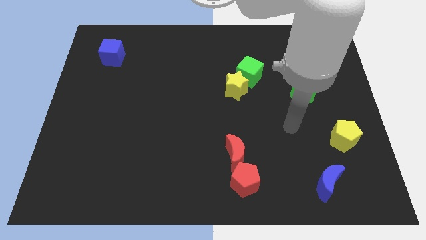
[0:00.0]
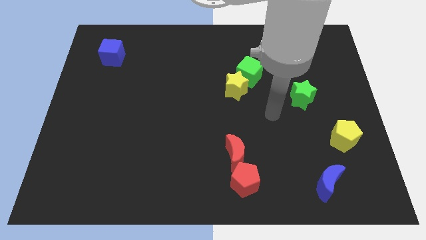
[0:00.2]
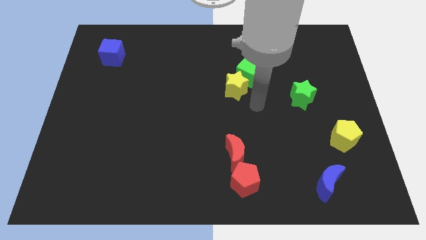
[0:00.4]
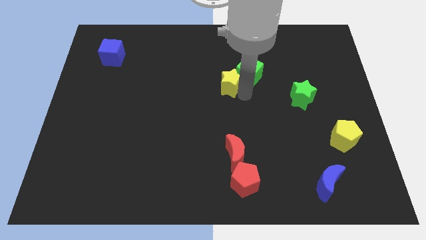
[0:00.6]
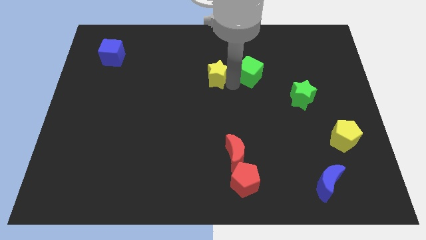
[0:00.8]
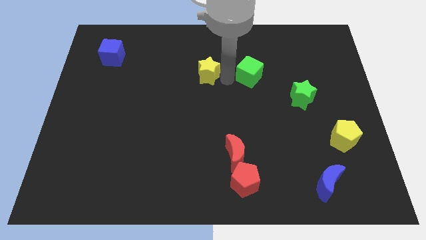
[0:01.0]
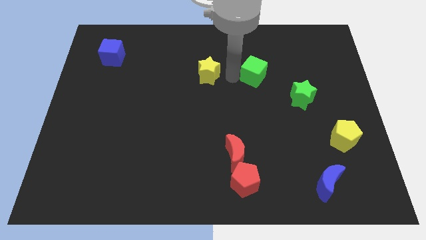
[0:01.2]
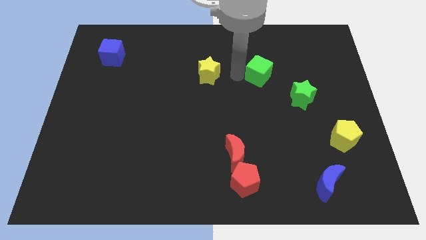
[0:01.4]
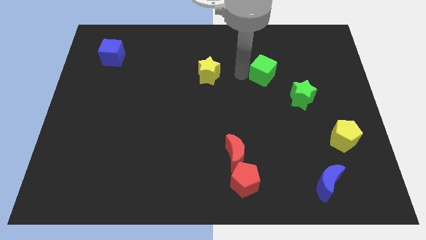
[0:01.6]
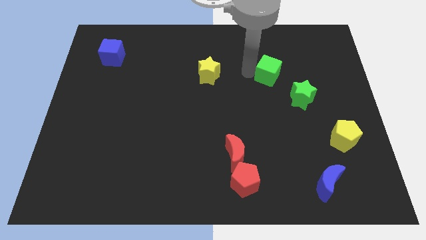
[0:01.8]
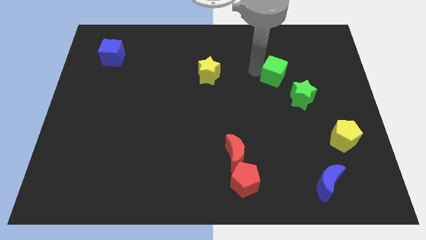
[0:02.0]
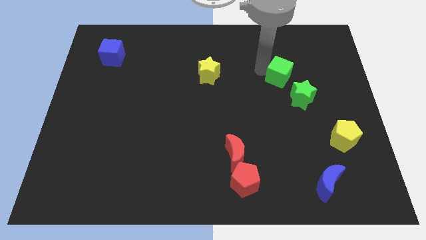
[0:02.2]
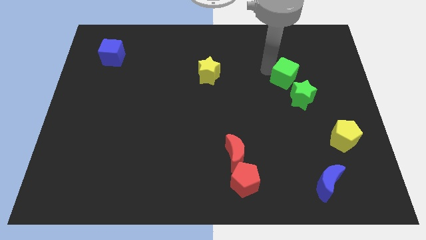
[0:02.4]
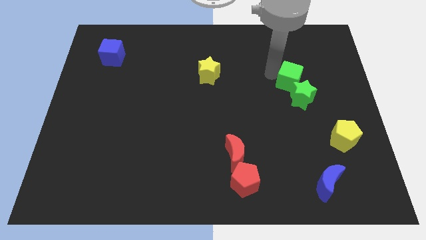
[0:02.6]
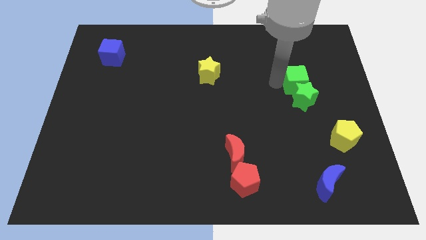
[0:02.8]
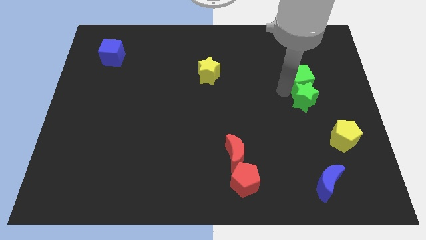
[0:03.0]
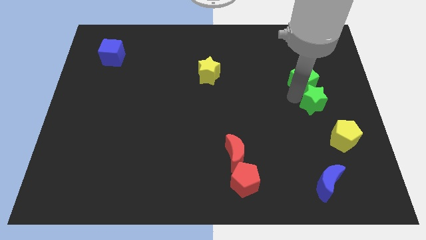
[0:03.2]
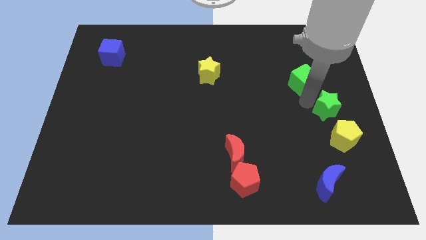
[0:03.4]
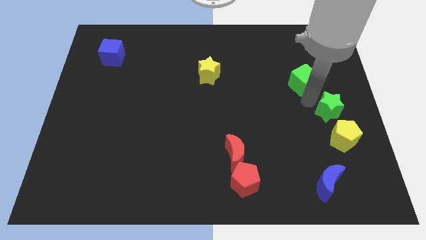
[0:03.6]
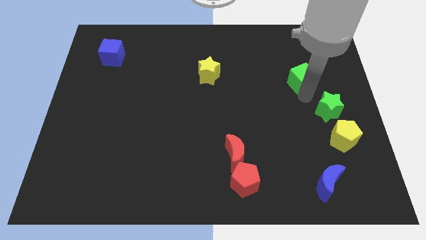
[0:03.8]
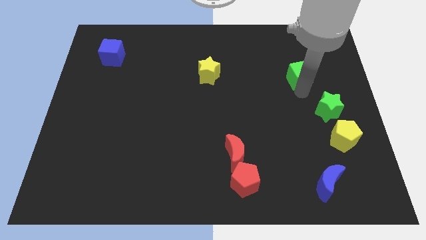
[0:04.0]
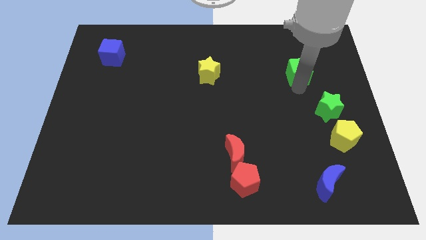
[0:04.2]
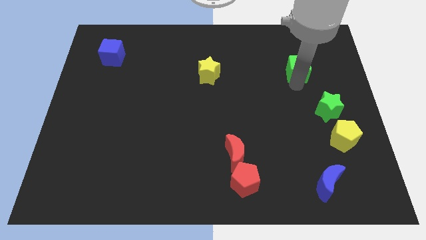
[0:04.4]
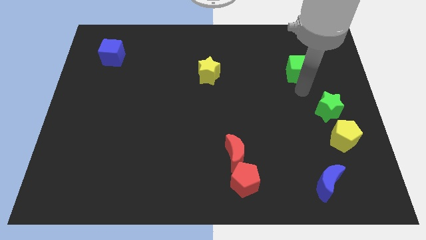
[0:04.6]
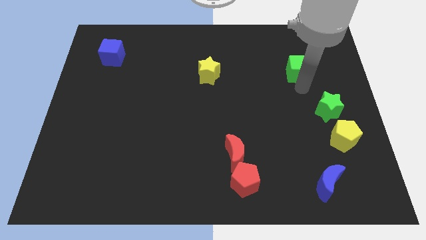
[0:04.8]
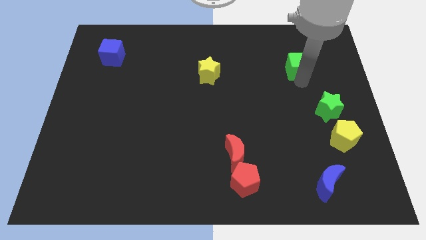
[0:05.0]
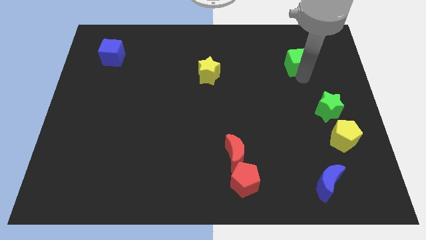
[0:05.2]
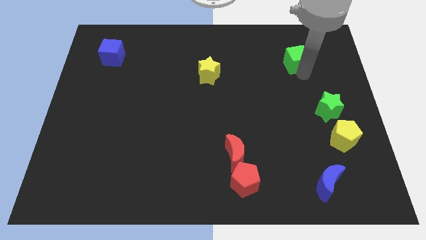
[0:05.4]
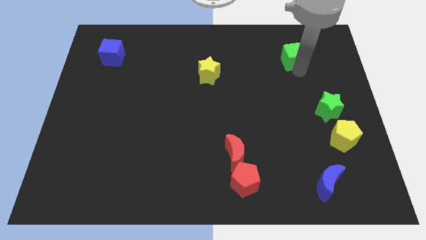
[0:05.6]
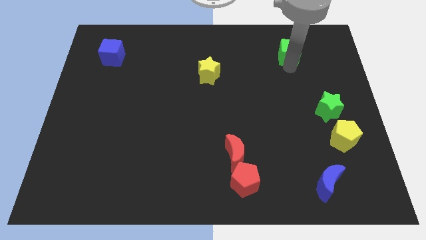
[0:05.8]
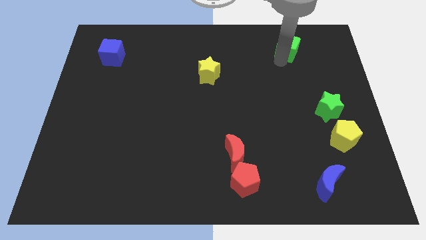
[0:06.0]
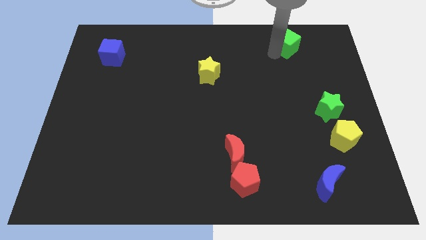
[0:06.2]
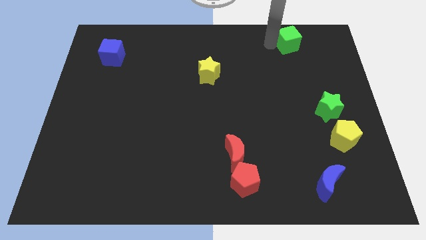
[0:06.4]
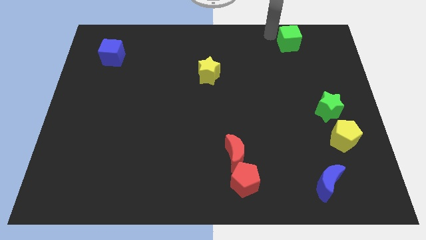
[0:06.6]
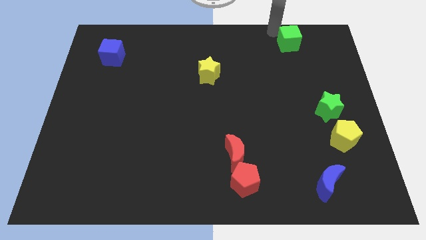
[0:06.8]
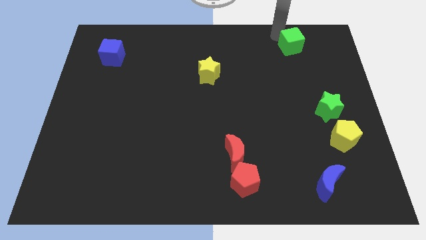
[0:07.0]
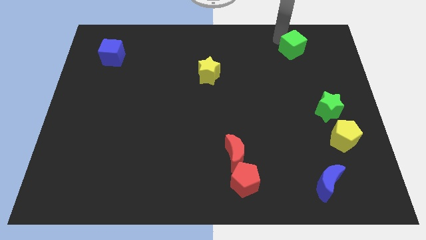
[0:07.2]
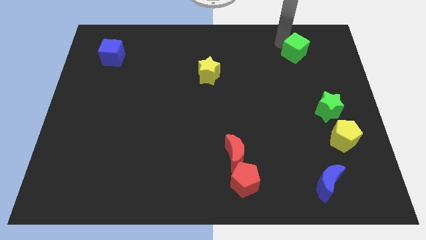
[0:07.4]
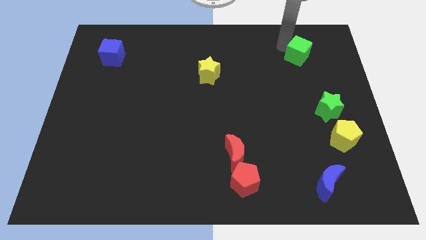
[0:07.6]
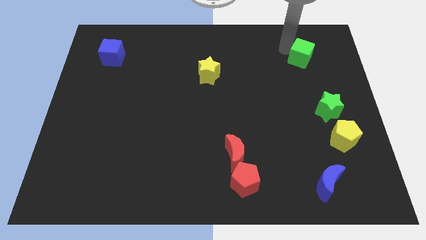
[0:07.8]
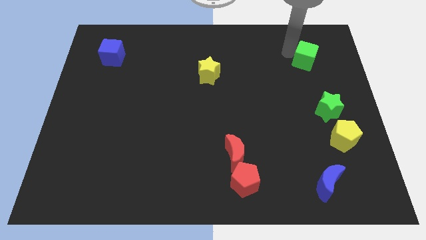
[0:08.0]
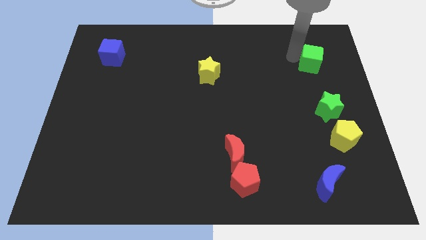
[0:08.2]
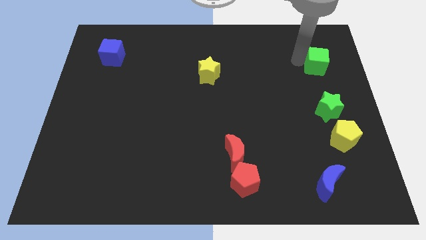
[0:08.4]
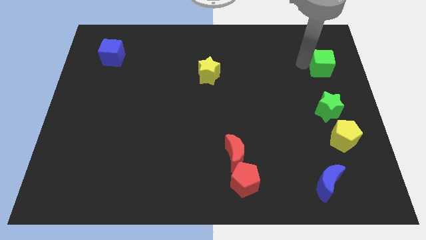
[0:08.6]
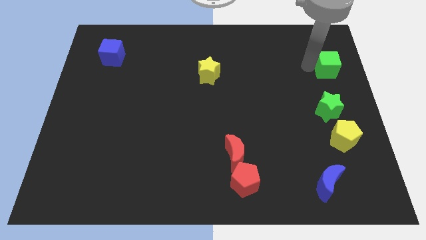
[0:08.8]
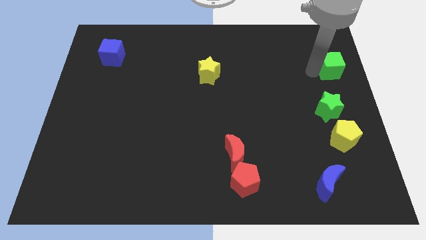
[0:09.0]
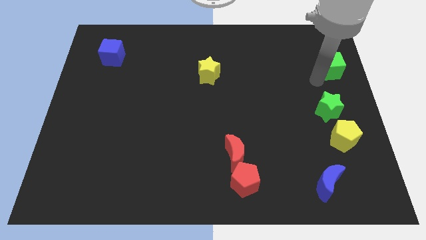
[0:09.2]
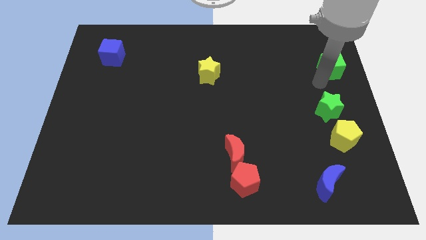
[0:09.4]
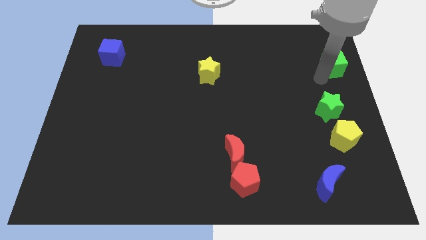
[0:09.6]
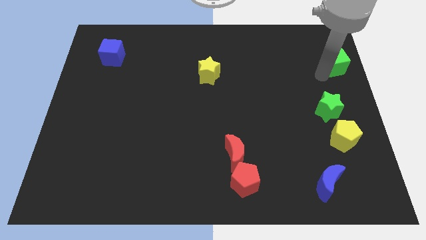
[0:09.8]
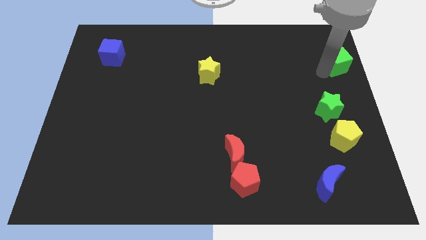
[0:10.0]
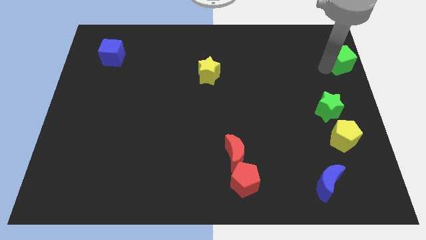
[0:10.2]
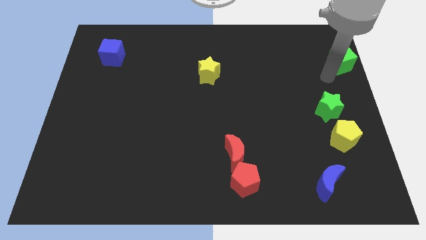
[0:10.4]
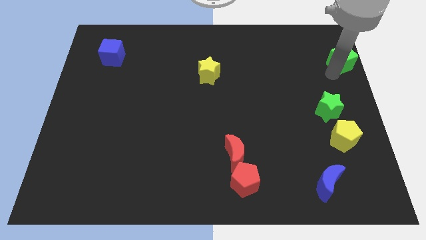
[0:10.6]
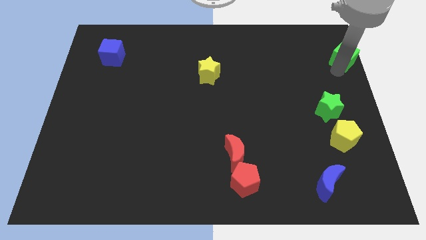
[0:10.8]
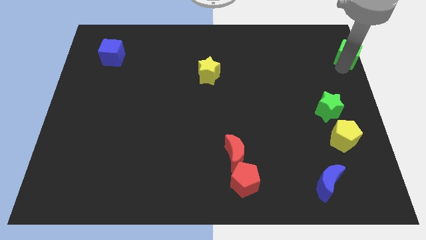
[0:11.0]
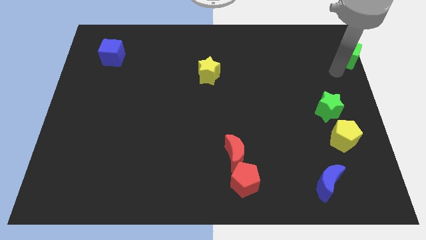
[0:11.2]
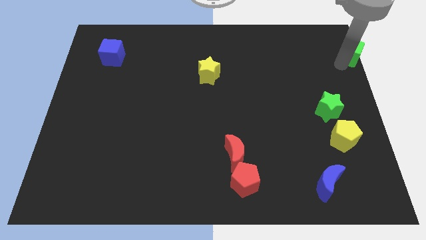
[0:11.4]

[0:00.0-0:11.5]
slide the green cube to the top right of the board
